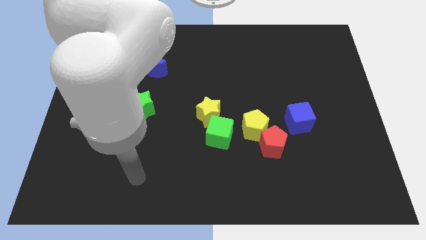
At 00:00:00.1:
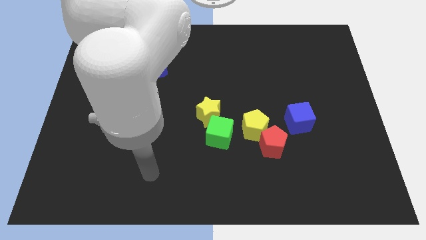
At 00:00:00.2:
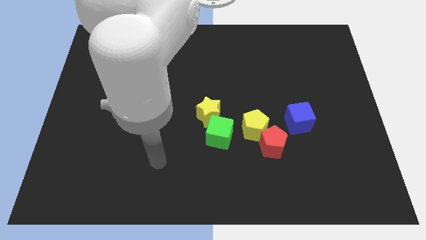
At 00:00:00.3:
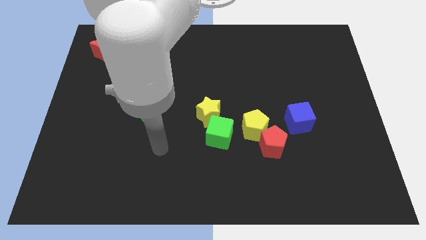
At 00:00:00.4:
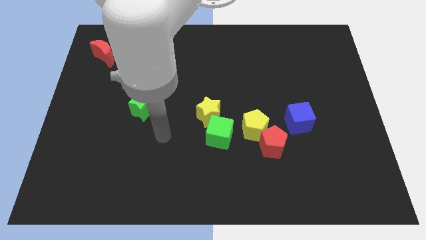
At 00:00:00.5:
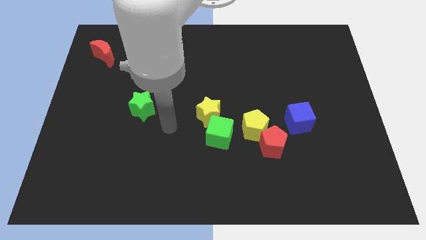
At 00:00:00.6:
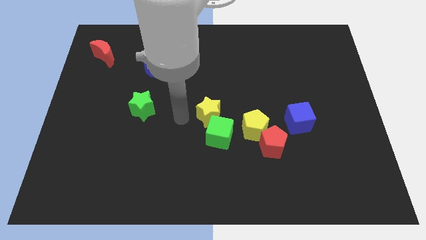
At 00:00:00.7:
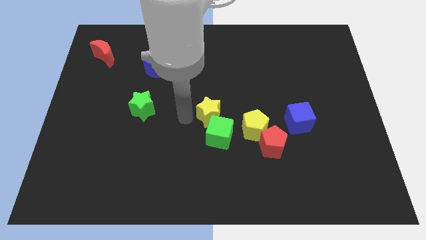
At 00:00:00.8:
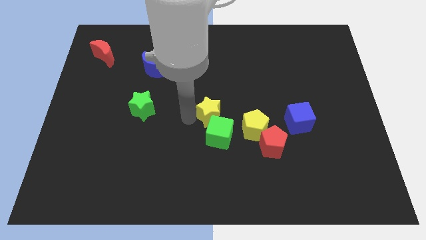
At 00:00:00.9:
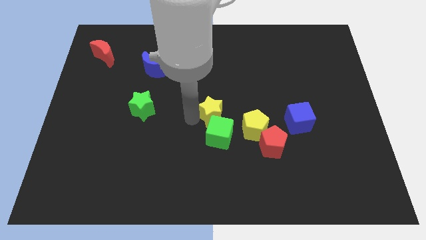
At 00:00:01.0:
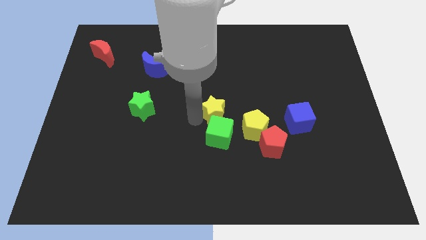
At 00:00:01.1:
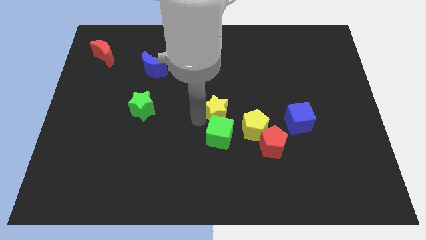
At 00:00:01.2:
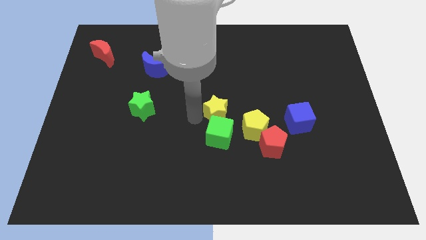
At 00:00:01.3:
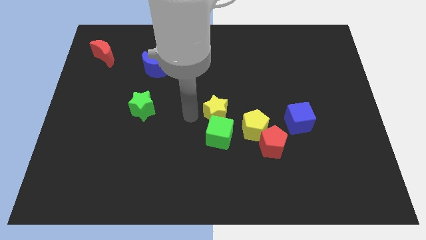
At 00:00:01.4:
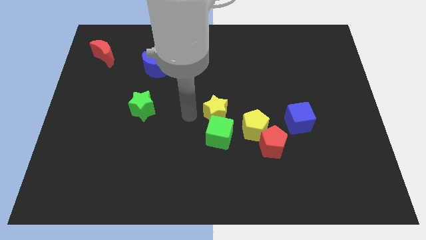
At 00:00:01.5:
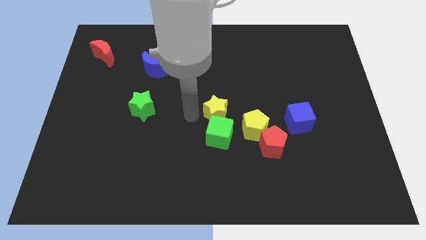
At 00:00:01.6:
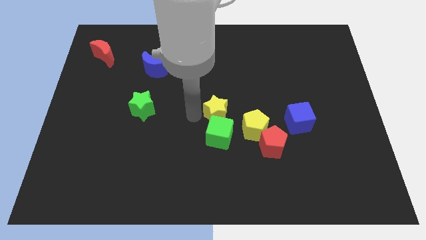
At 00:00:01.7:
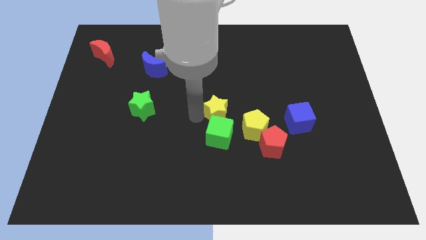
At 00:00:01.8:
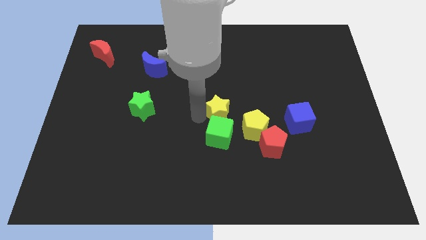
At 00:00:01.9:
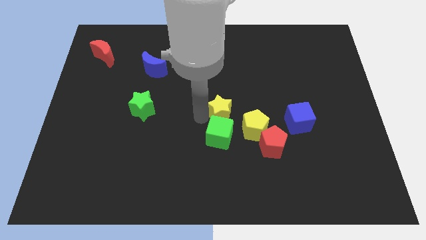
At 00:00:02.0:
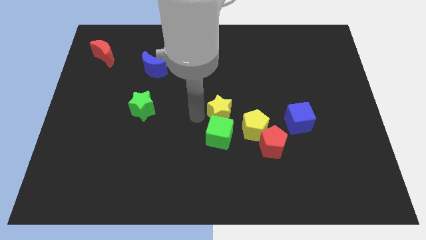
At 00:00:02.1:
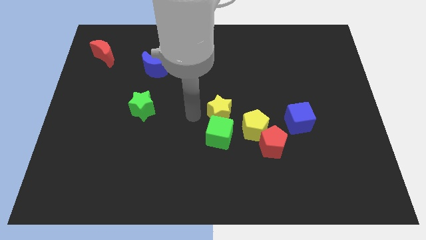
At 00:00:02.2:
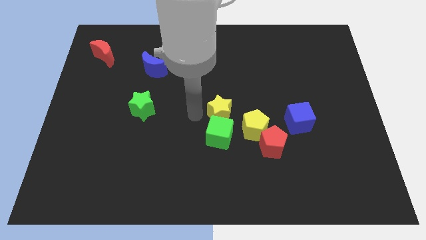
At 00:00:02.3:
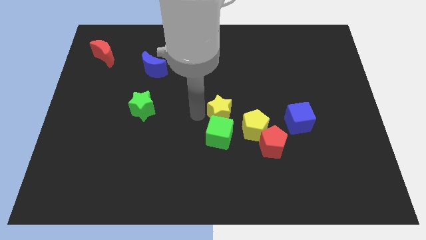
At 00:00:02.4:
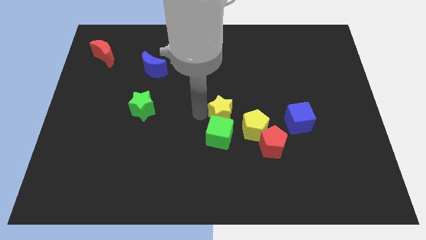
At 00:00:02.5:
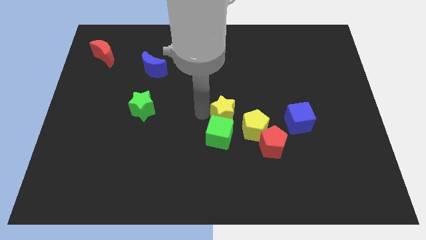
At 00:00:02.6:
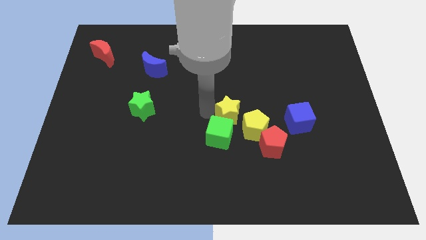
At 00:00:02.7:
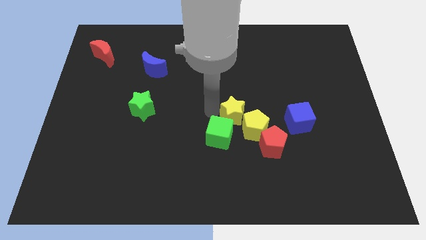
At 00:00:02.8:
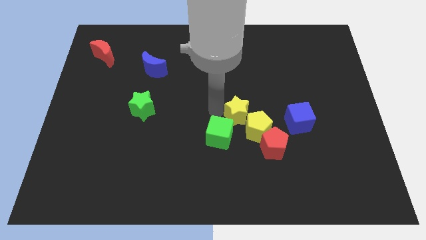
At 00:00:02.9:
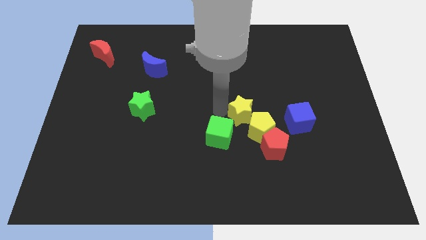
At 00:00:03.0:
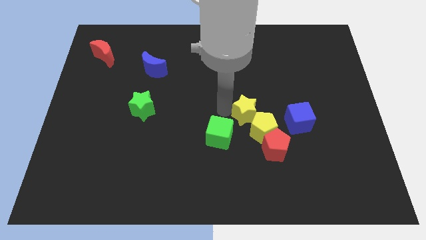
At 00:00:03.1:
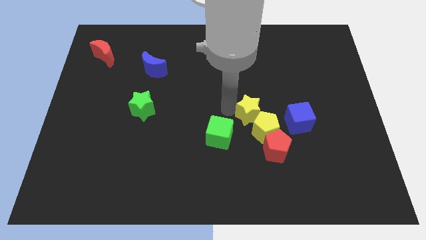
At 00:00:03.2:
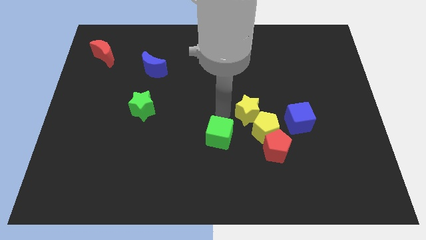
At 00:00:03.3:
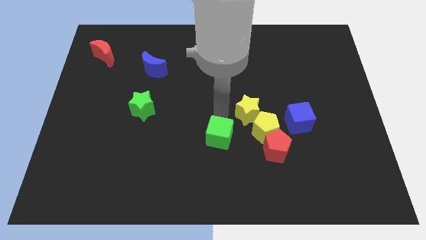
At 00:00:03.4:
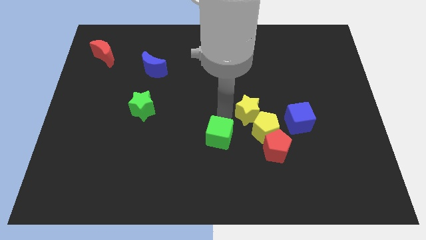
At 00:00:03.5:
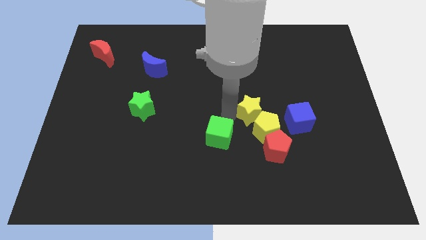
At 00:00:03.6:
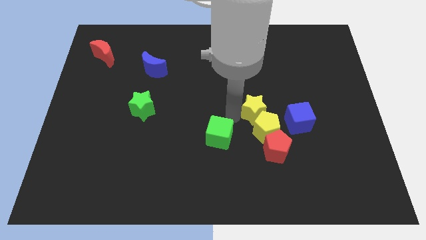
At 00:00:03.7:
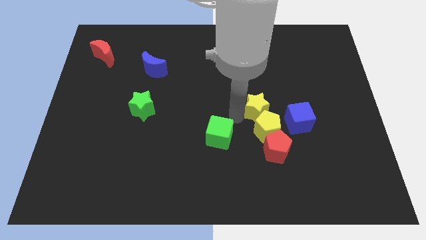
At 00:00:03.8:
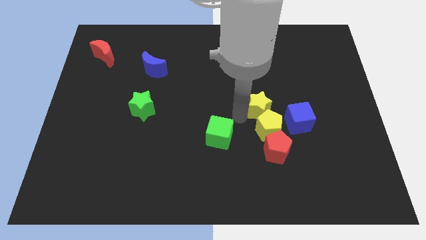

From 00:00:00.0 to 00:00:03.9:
push the yellow star to the top right side of the yellow pentagon

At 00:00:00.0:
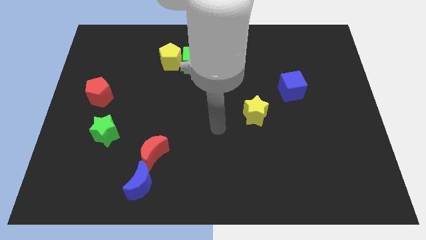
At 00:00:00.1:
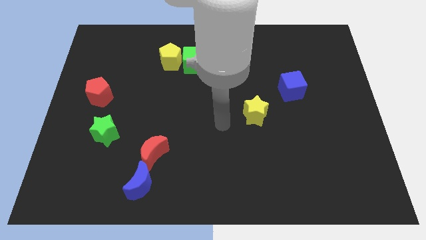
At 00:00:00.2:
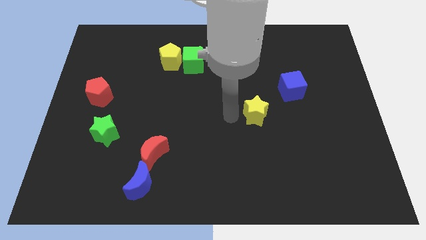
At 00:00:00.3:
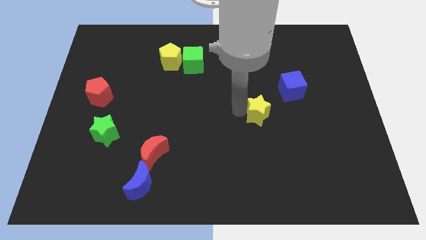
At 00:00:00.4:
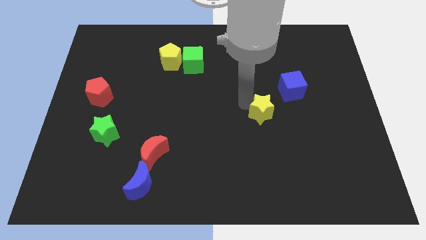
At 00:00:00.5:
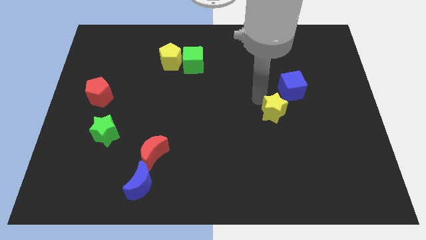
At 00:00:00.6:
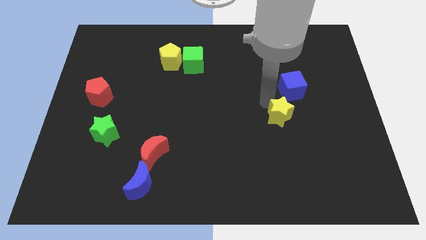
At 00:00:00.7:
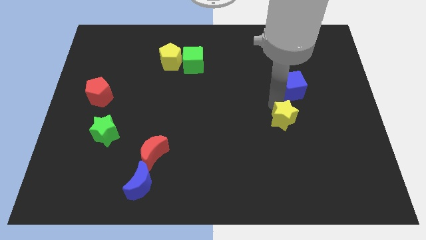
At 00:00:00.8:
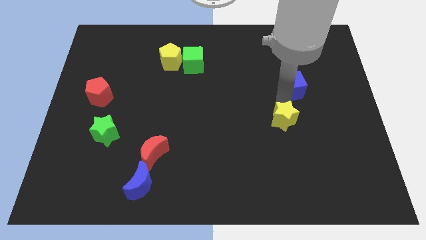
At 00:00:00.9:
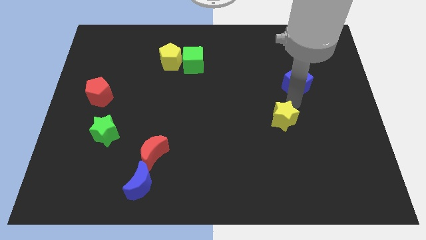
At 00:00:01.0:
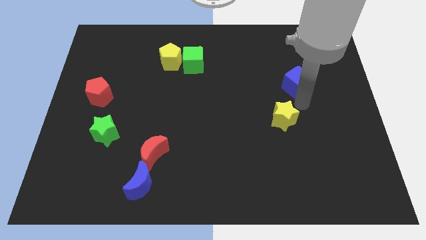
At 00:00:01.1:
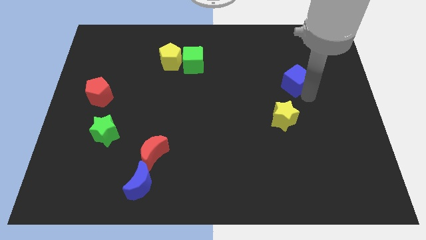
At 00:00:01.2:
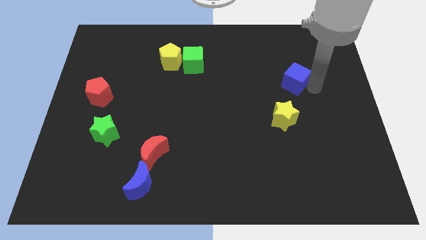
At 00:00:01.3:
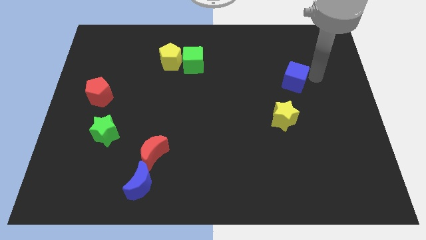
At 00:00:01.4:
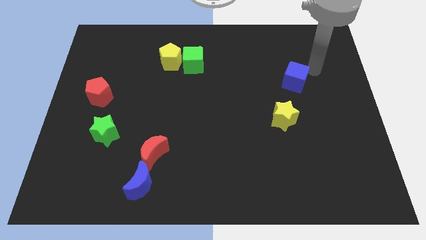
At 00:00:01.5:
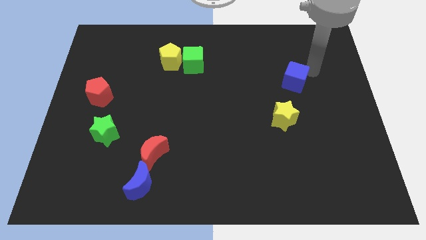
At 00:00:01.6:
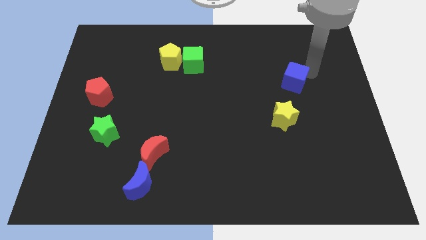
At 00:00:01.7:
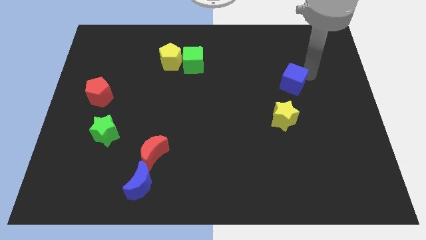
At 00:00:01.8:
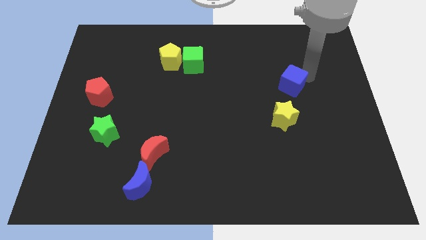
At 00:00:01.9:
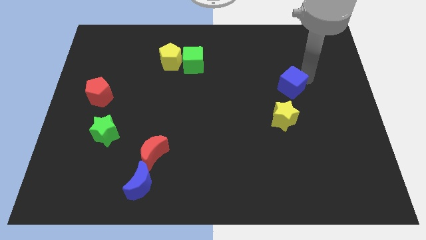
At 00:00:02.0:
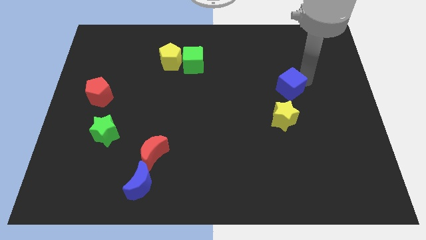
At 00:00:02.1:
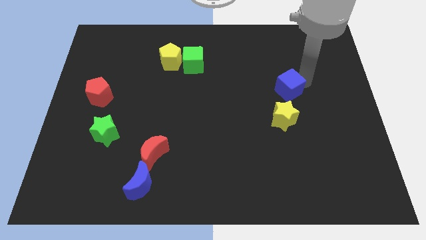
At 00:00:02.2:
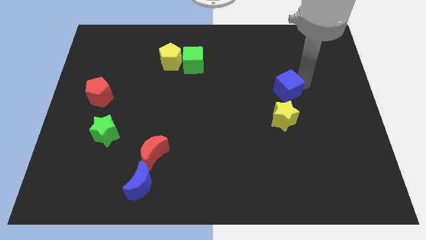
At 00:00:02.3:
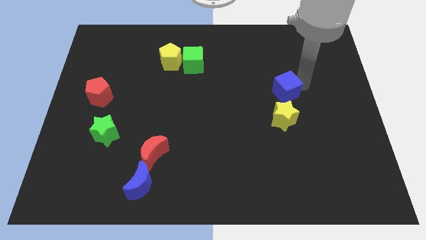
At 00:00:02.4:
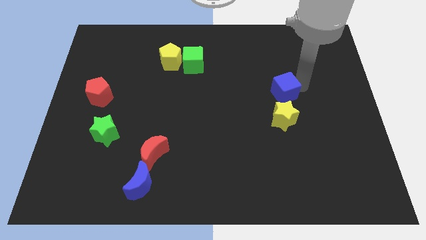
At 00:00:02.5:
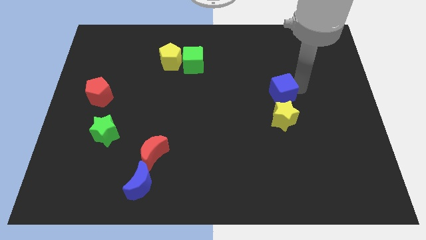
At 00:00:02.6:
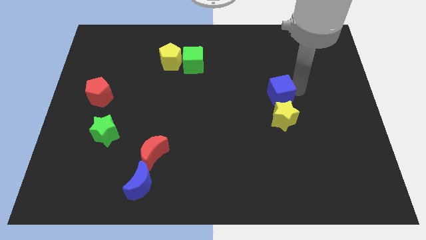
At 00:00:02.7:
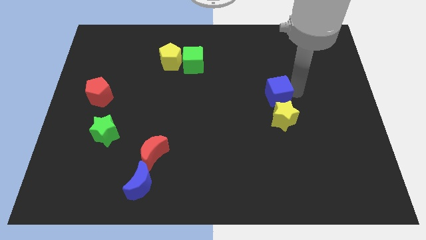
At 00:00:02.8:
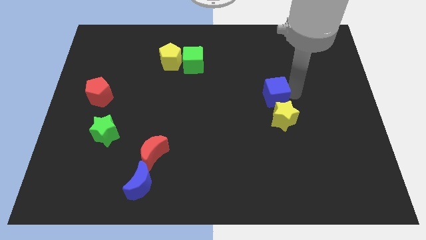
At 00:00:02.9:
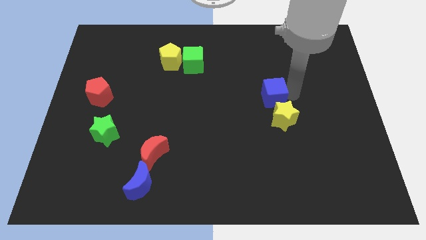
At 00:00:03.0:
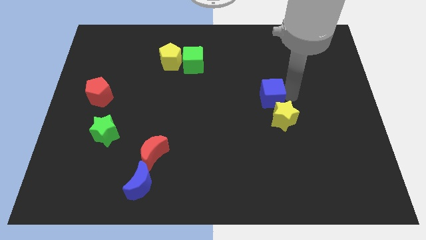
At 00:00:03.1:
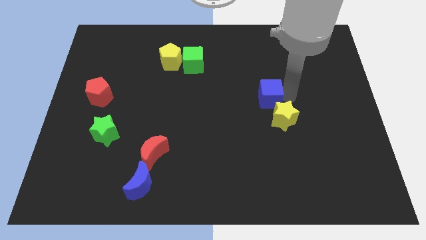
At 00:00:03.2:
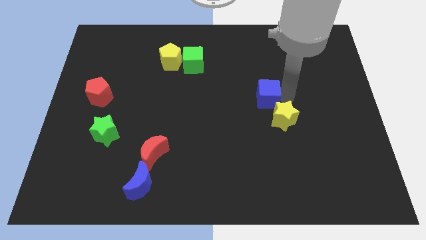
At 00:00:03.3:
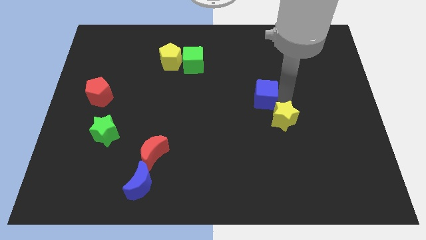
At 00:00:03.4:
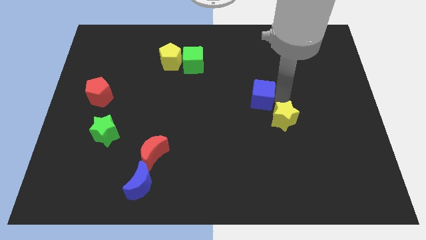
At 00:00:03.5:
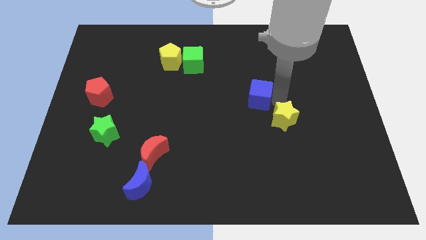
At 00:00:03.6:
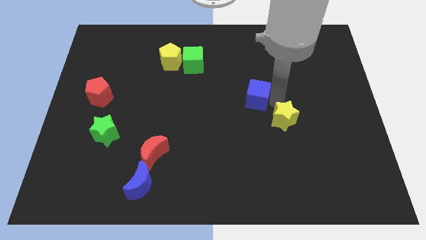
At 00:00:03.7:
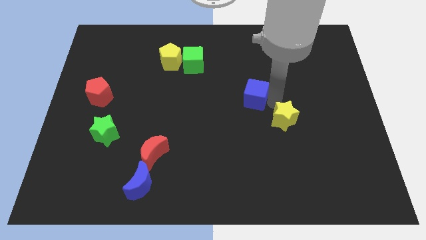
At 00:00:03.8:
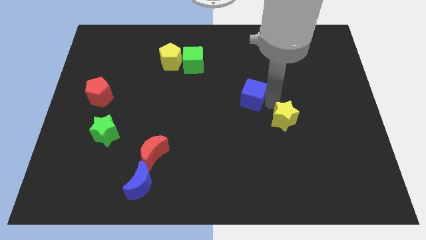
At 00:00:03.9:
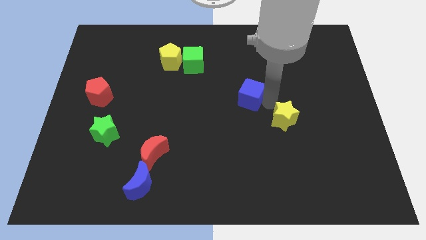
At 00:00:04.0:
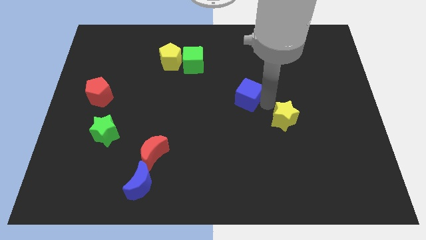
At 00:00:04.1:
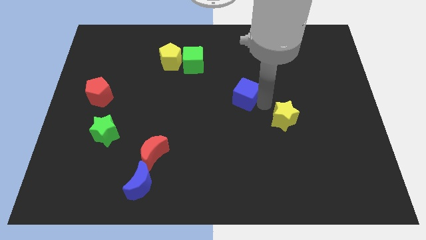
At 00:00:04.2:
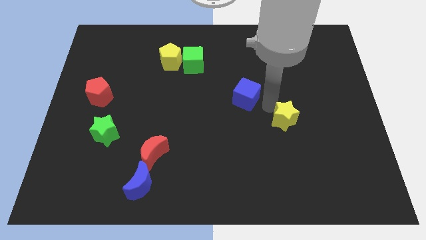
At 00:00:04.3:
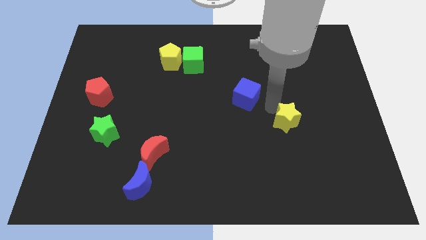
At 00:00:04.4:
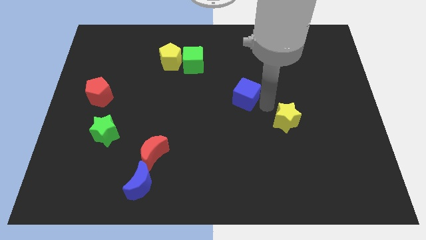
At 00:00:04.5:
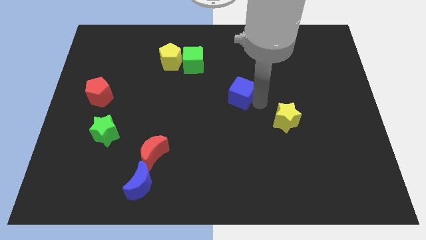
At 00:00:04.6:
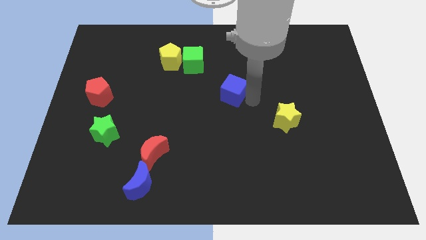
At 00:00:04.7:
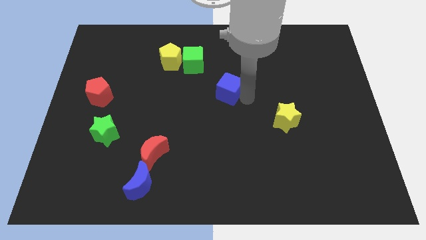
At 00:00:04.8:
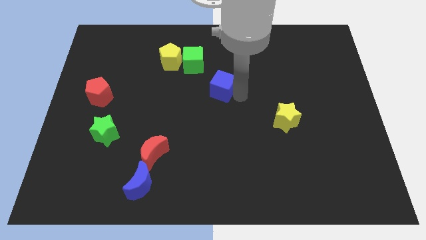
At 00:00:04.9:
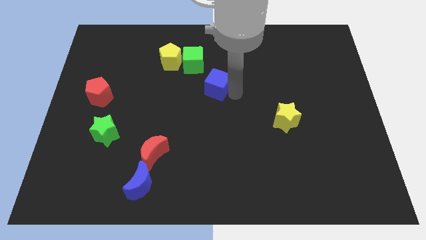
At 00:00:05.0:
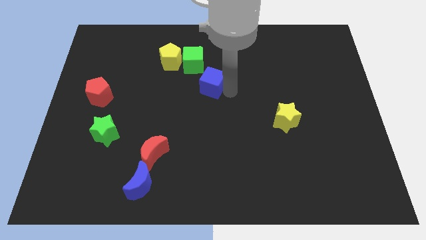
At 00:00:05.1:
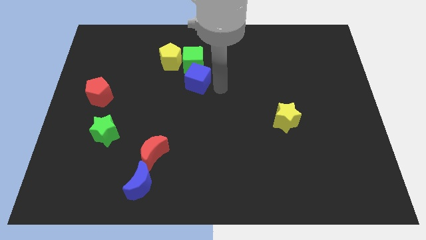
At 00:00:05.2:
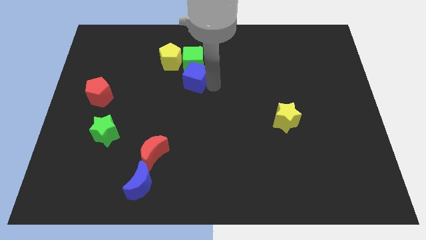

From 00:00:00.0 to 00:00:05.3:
put the blue cube diagonally down and to the left of the green cube
